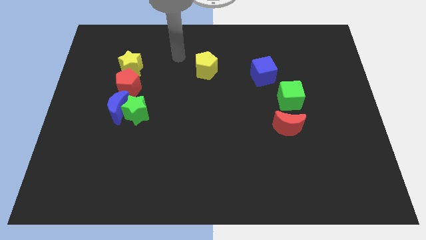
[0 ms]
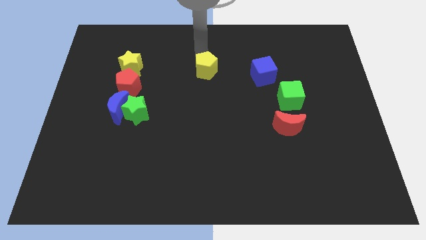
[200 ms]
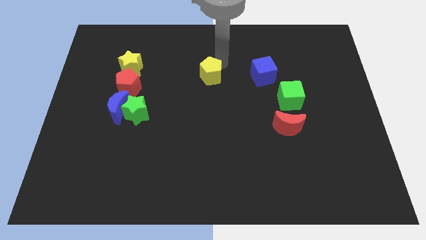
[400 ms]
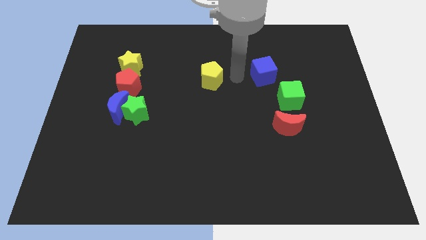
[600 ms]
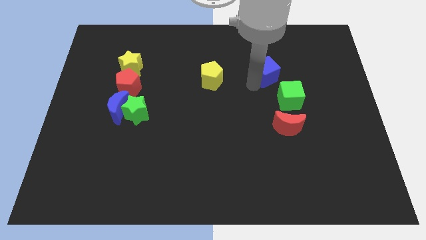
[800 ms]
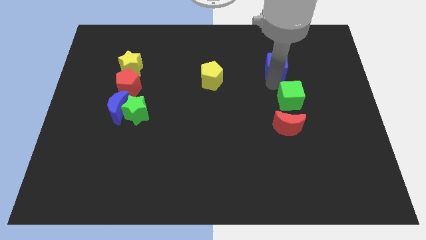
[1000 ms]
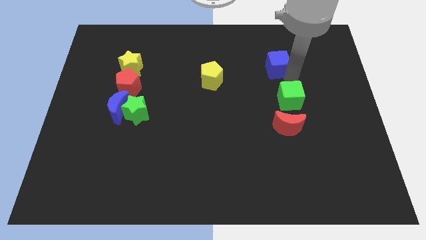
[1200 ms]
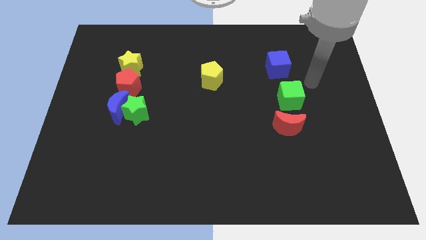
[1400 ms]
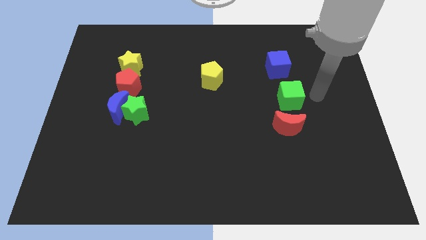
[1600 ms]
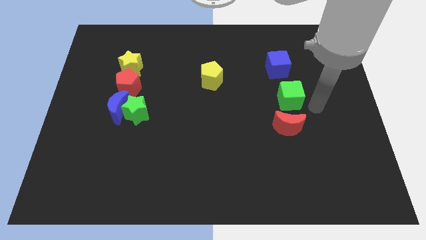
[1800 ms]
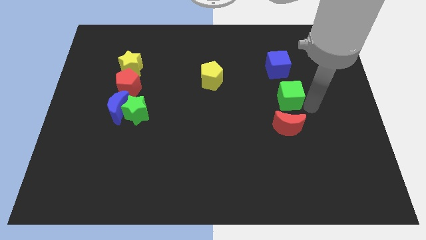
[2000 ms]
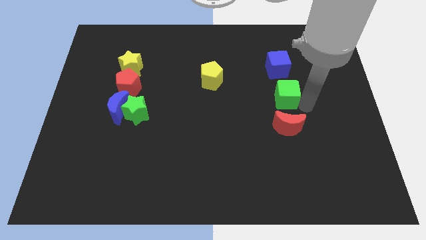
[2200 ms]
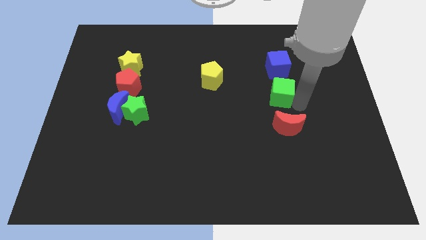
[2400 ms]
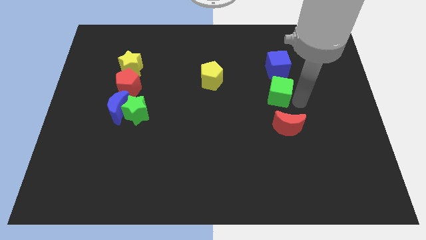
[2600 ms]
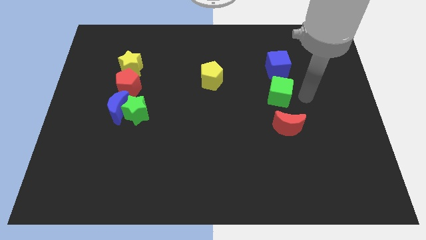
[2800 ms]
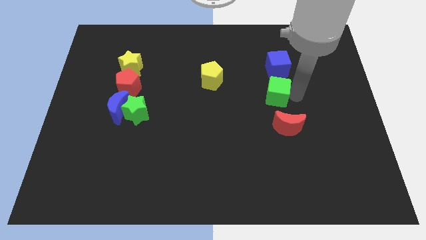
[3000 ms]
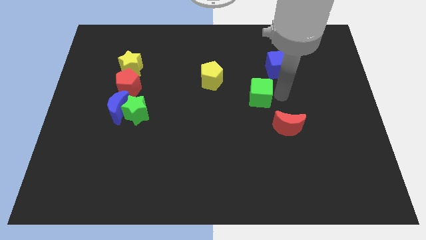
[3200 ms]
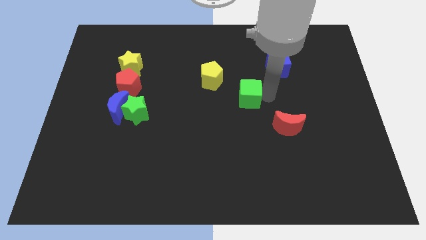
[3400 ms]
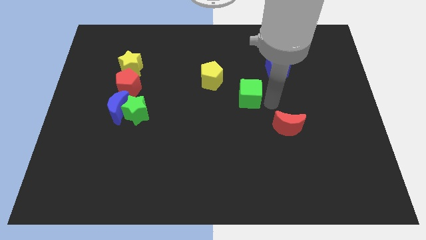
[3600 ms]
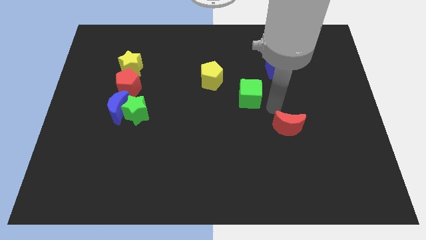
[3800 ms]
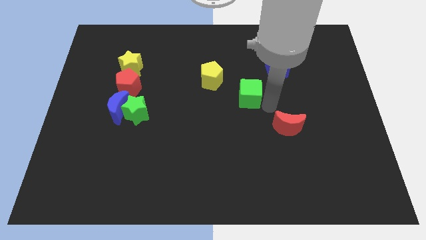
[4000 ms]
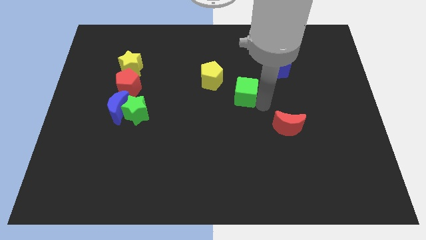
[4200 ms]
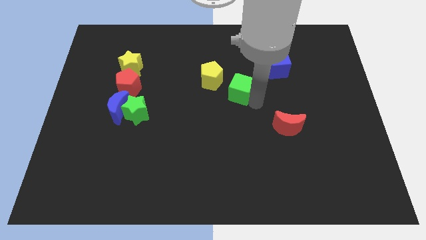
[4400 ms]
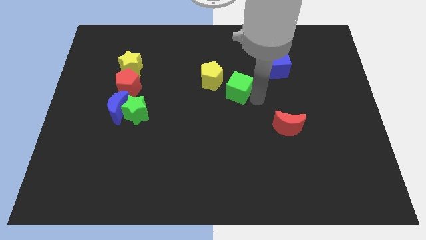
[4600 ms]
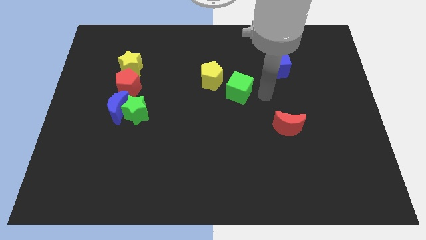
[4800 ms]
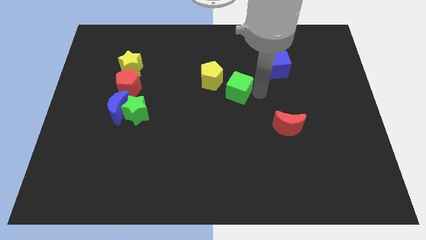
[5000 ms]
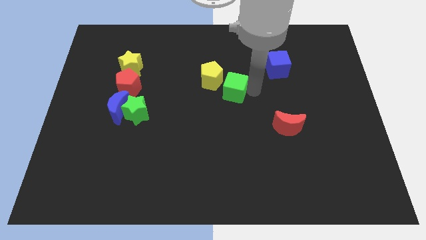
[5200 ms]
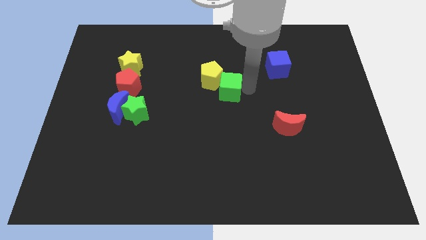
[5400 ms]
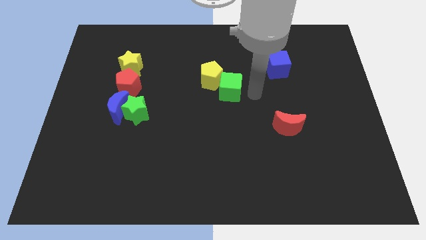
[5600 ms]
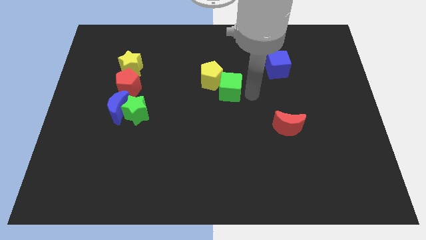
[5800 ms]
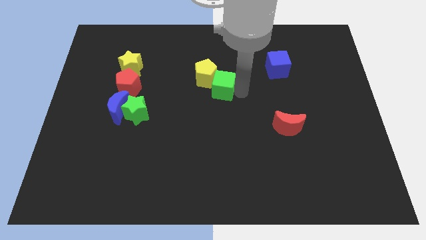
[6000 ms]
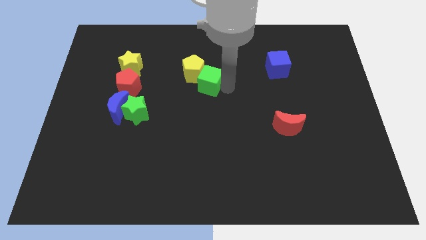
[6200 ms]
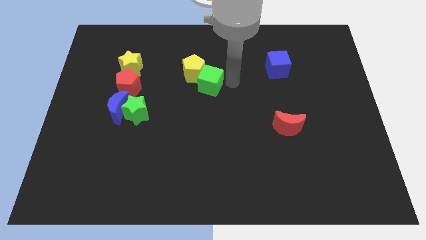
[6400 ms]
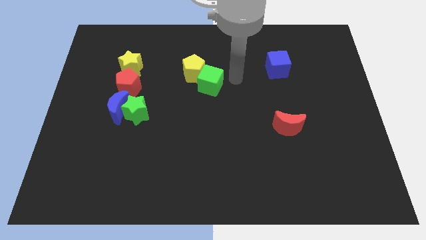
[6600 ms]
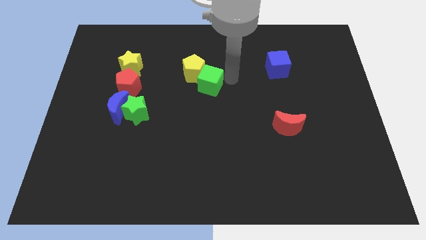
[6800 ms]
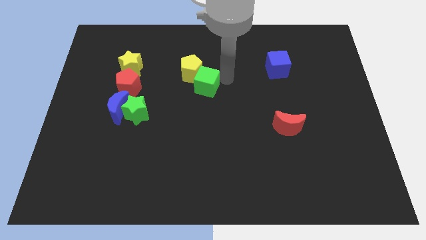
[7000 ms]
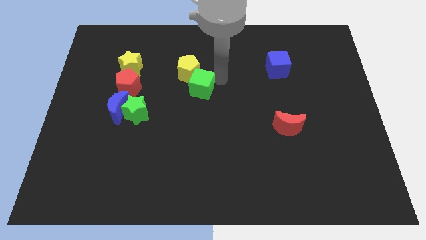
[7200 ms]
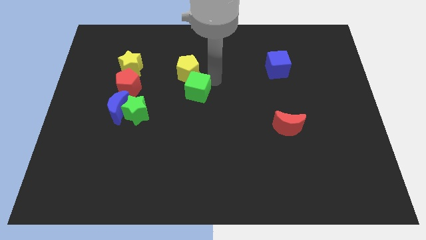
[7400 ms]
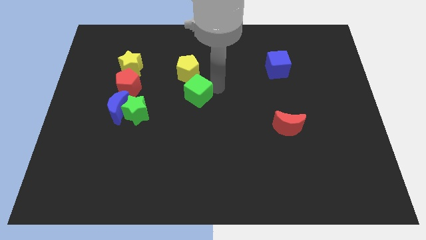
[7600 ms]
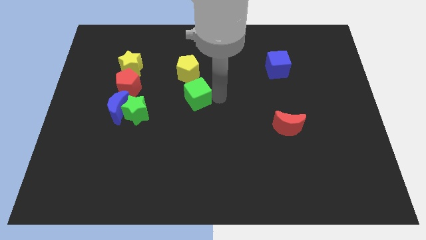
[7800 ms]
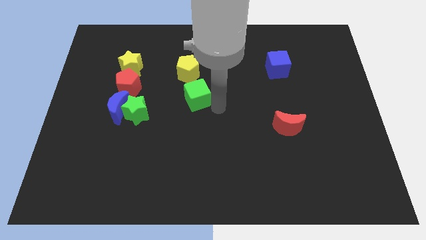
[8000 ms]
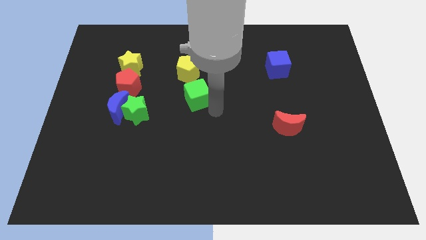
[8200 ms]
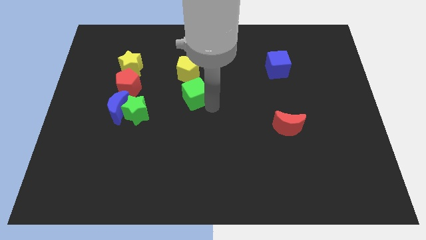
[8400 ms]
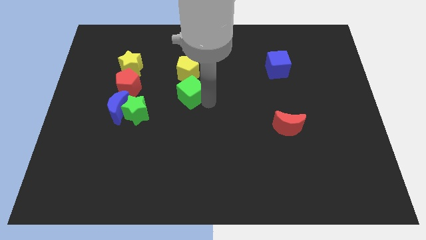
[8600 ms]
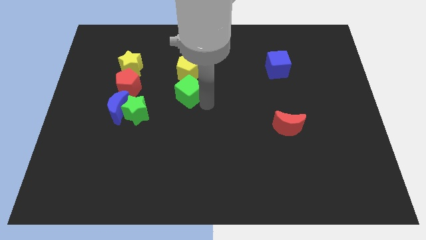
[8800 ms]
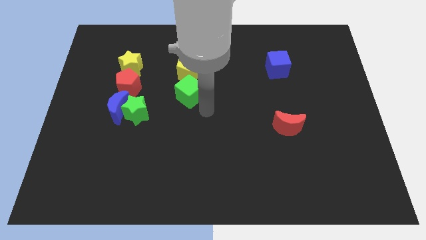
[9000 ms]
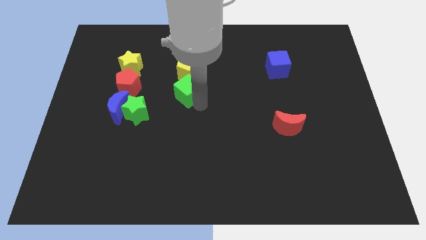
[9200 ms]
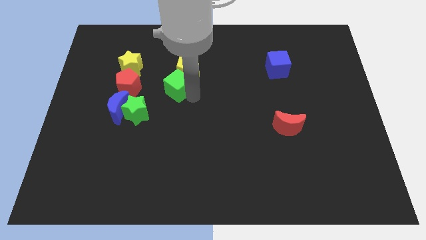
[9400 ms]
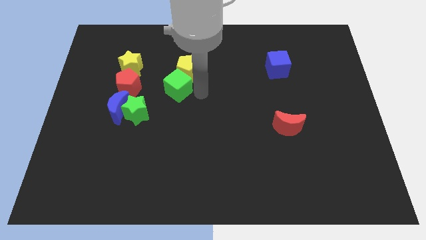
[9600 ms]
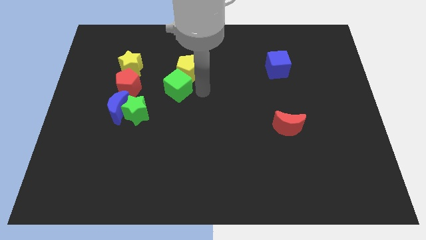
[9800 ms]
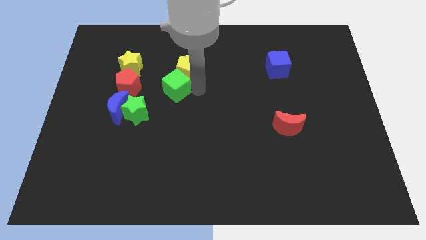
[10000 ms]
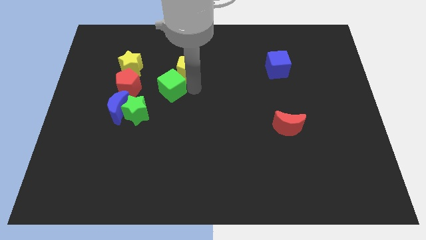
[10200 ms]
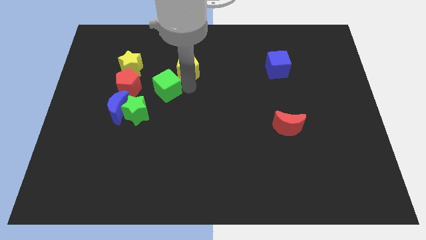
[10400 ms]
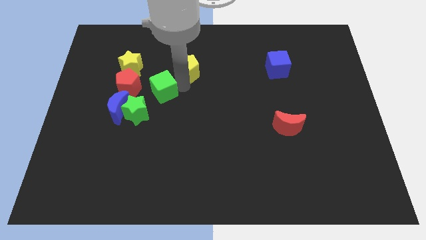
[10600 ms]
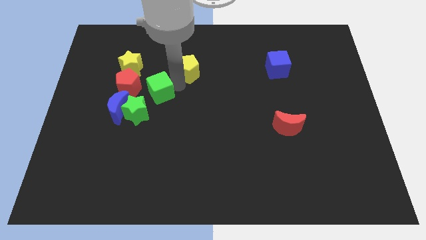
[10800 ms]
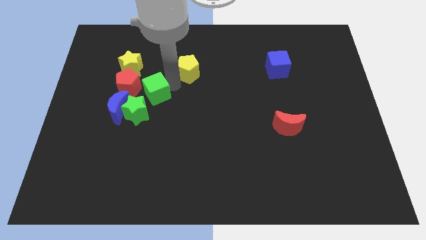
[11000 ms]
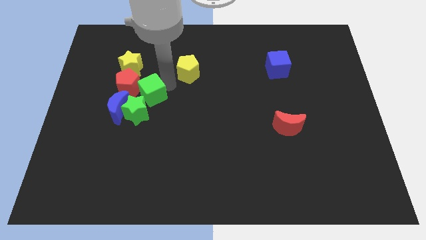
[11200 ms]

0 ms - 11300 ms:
put the green cube towards the red pentagon

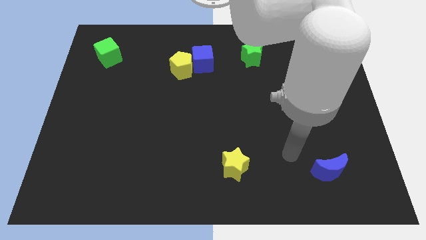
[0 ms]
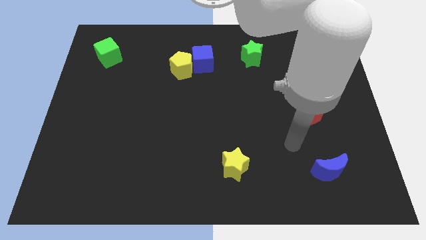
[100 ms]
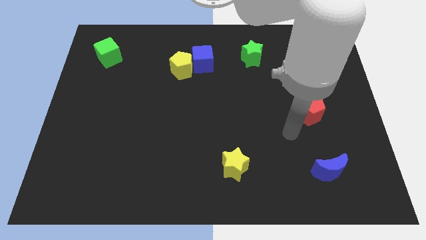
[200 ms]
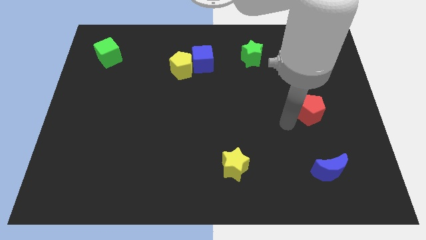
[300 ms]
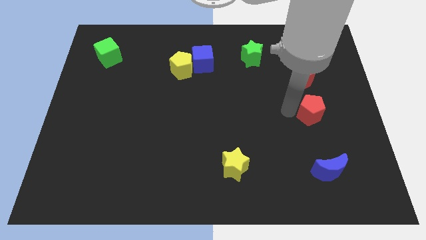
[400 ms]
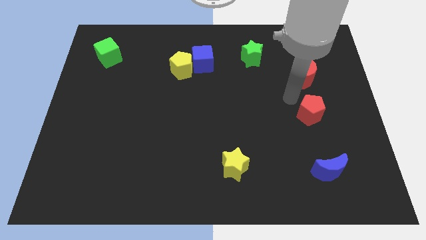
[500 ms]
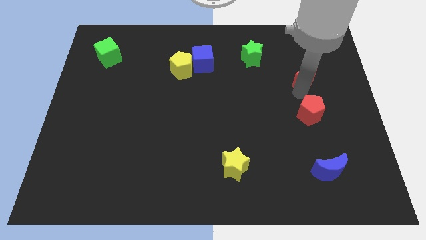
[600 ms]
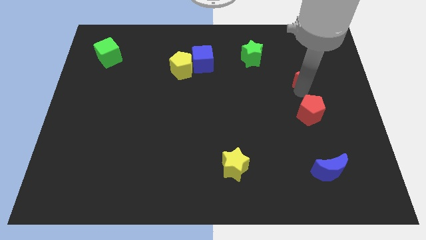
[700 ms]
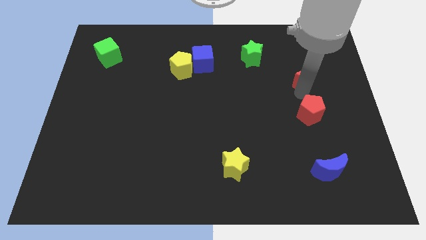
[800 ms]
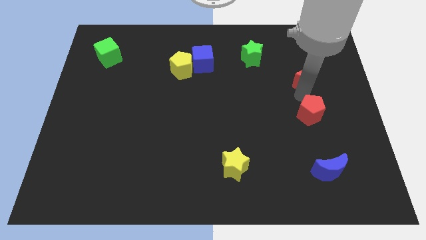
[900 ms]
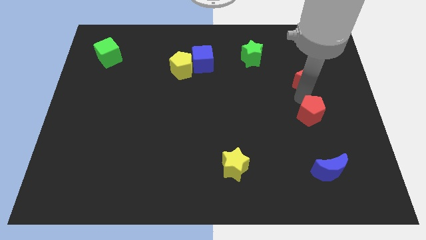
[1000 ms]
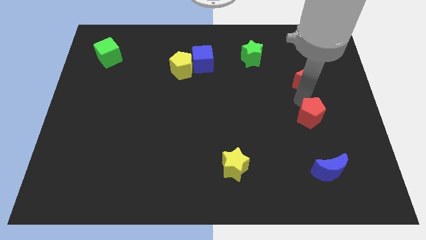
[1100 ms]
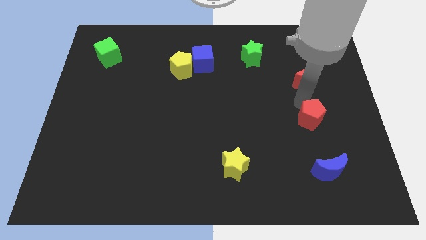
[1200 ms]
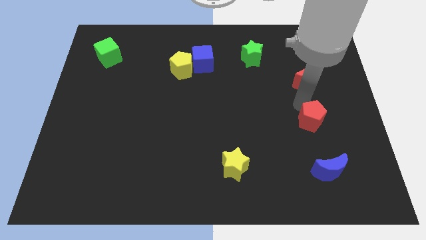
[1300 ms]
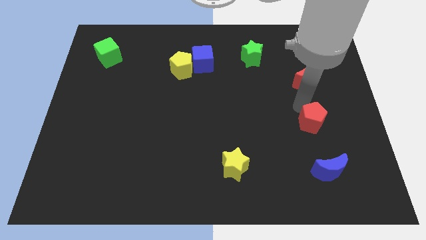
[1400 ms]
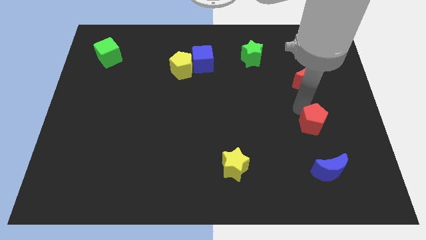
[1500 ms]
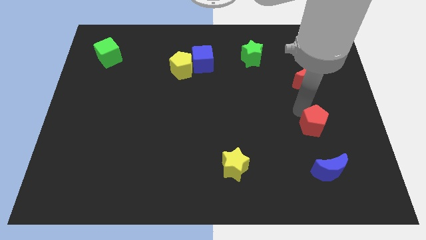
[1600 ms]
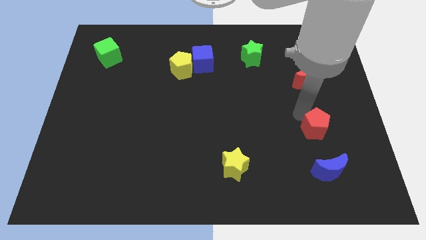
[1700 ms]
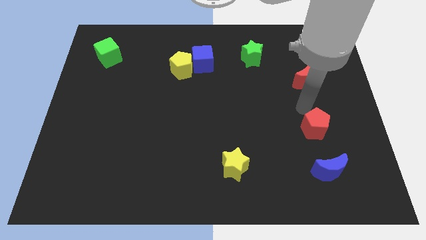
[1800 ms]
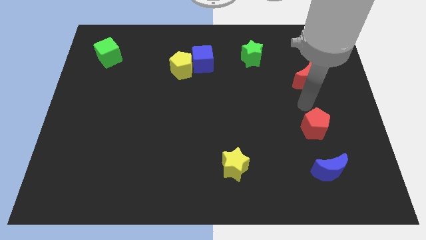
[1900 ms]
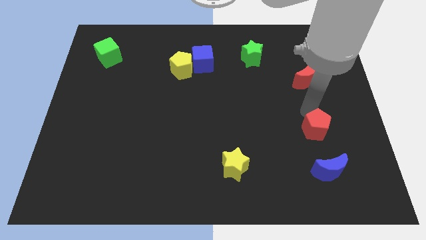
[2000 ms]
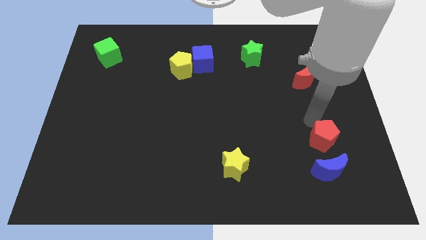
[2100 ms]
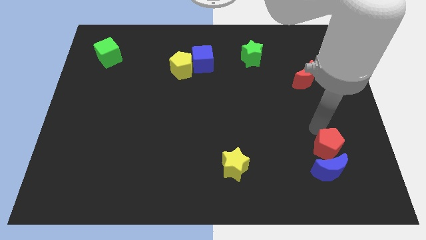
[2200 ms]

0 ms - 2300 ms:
slide the red pentagon next to the blue moon
